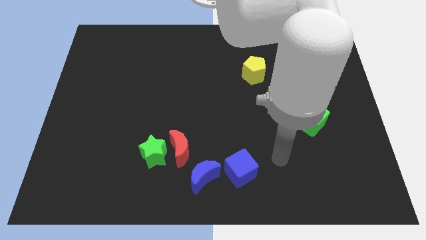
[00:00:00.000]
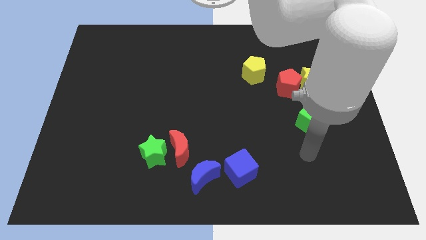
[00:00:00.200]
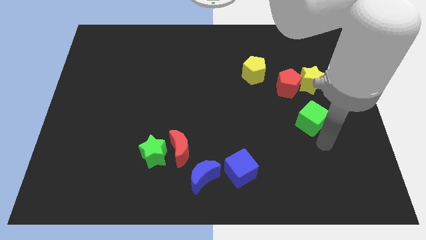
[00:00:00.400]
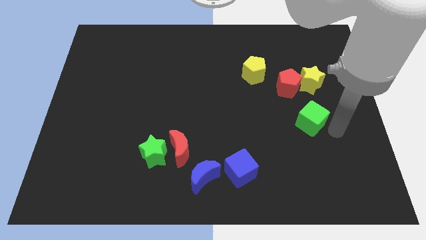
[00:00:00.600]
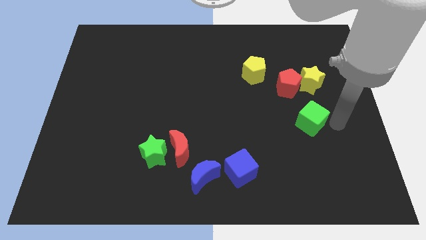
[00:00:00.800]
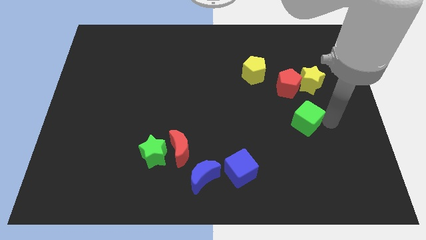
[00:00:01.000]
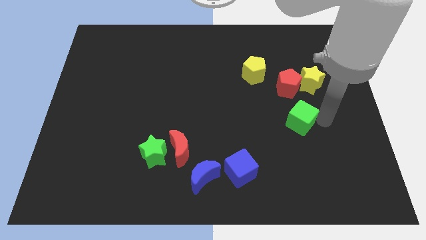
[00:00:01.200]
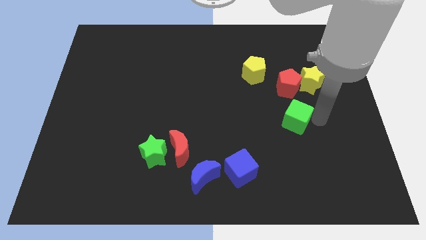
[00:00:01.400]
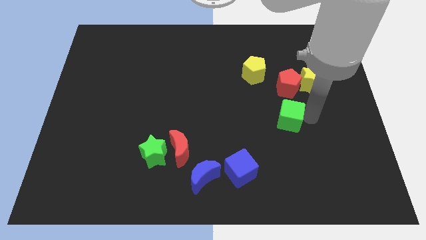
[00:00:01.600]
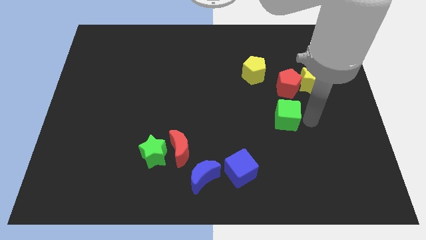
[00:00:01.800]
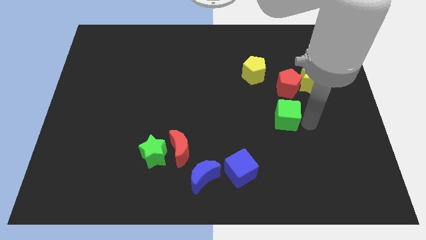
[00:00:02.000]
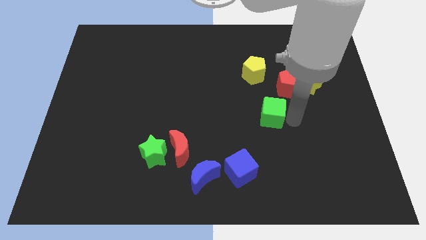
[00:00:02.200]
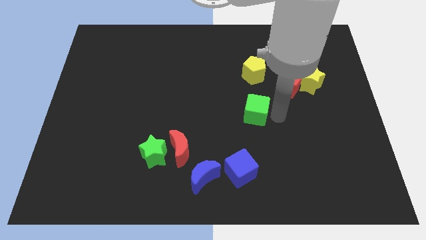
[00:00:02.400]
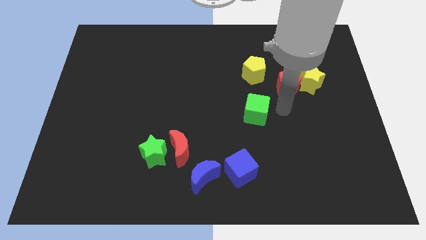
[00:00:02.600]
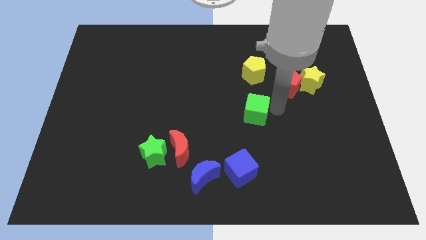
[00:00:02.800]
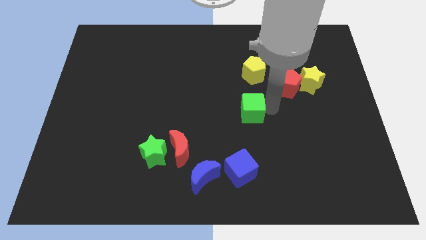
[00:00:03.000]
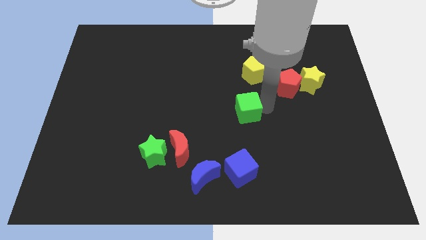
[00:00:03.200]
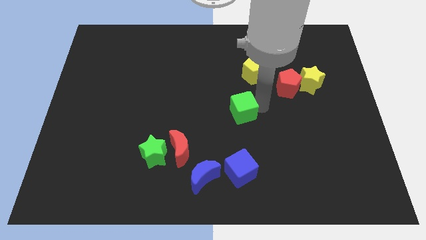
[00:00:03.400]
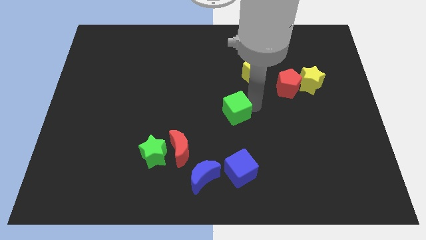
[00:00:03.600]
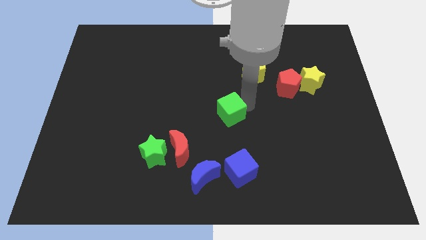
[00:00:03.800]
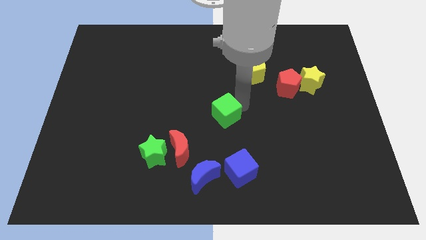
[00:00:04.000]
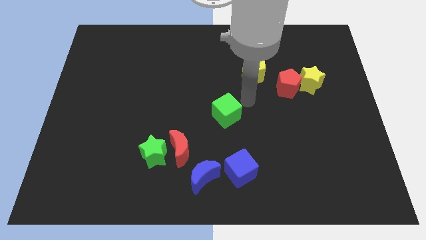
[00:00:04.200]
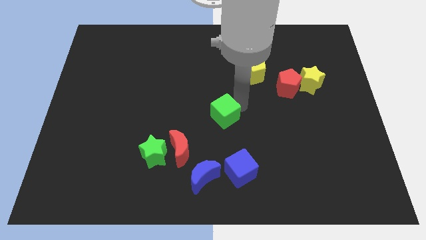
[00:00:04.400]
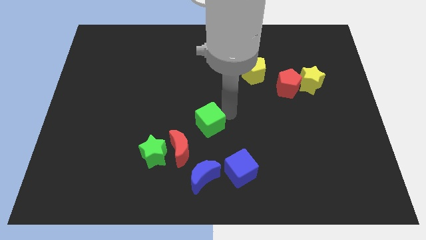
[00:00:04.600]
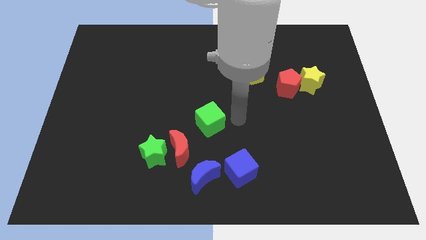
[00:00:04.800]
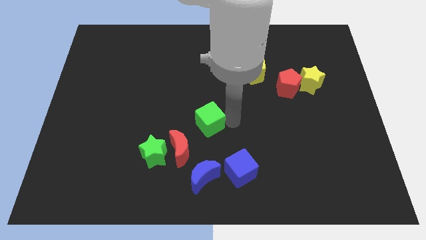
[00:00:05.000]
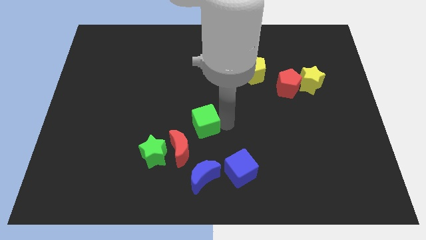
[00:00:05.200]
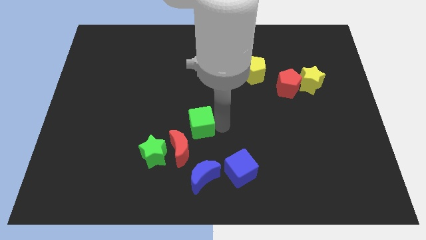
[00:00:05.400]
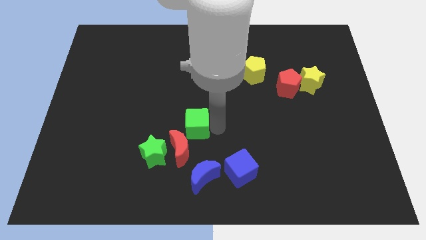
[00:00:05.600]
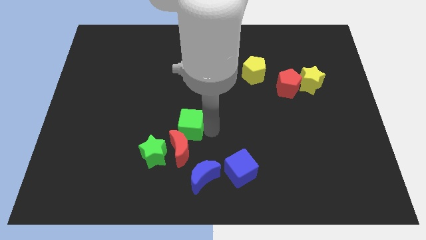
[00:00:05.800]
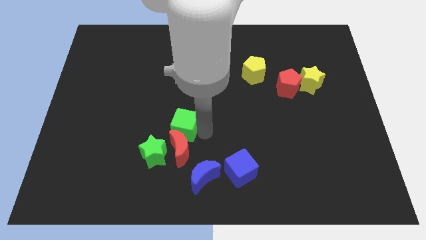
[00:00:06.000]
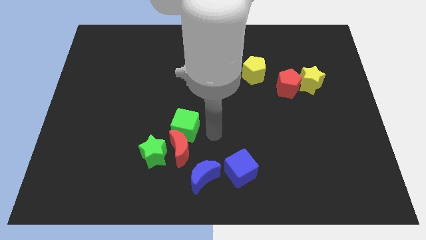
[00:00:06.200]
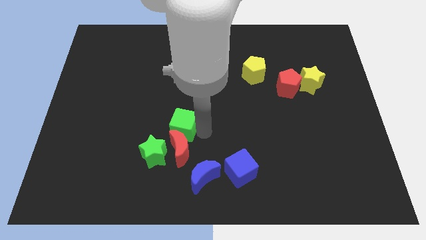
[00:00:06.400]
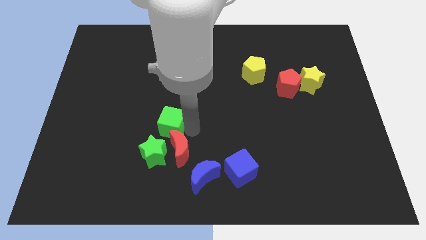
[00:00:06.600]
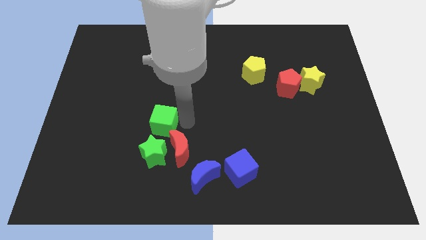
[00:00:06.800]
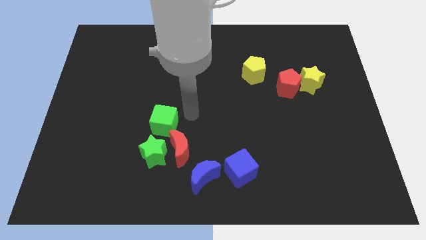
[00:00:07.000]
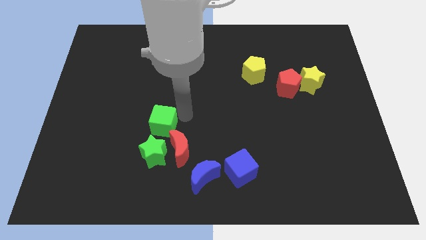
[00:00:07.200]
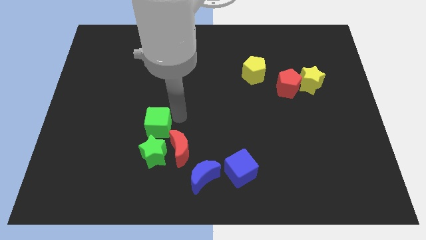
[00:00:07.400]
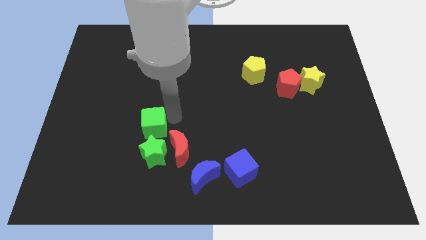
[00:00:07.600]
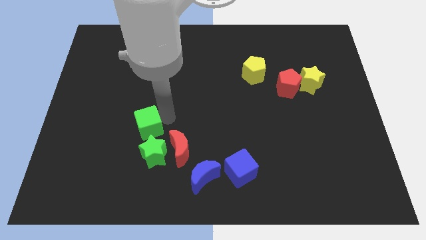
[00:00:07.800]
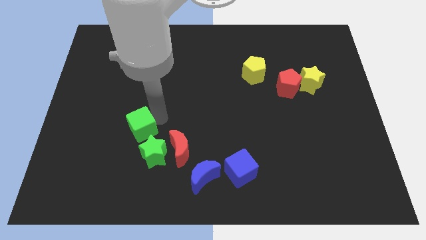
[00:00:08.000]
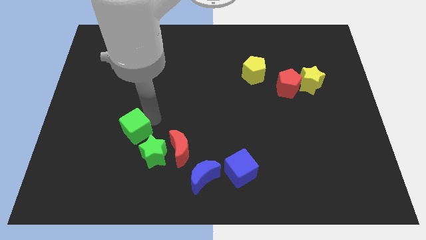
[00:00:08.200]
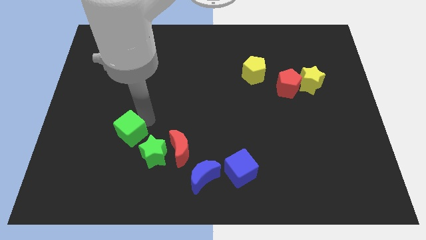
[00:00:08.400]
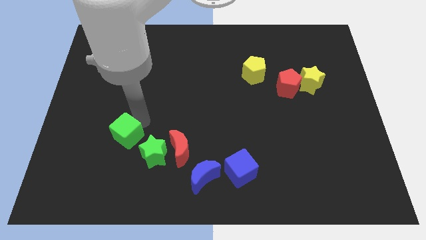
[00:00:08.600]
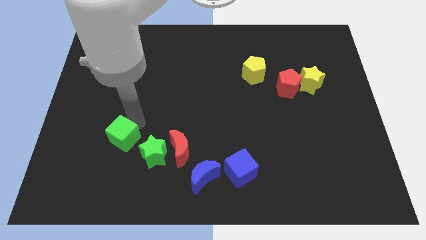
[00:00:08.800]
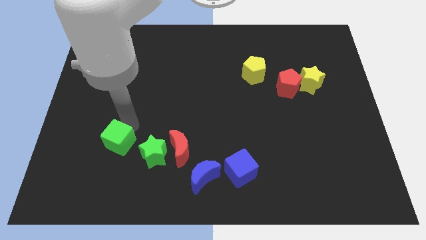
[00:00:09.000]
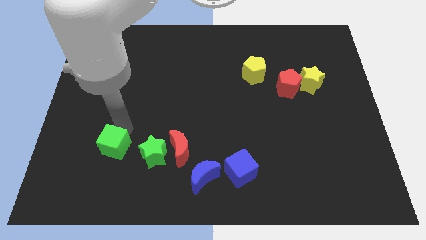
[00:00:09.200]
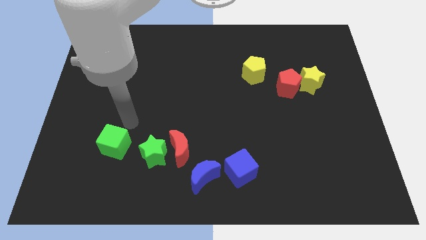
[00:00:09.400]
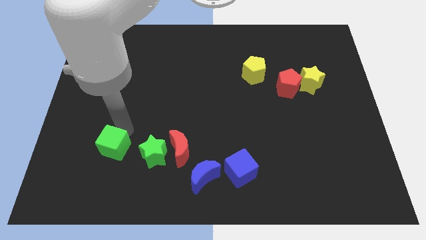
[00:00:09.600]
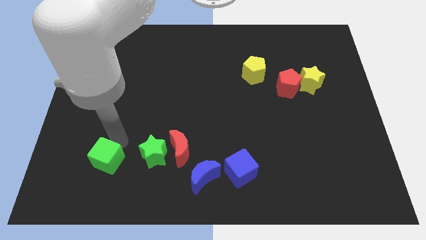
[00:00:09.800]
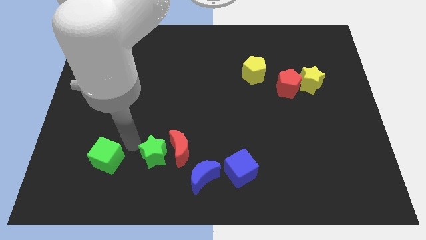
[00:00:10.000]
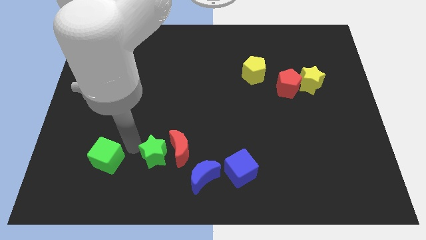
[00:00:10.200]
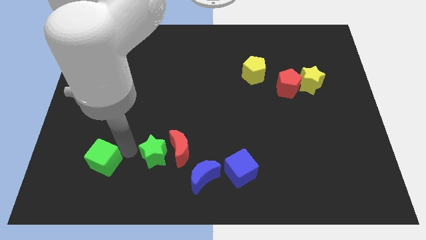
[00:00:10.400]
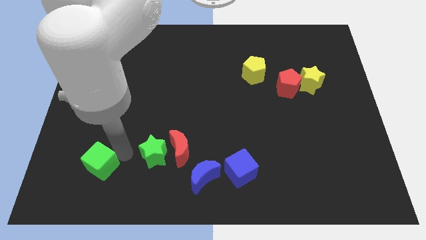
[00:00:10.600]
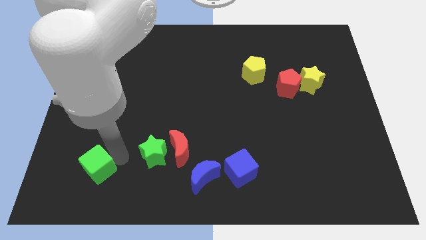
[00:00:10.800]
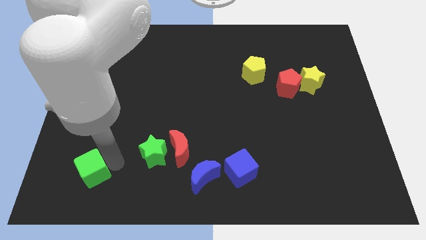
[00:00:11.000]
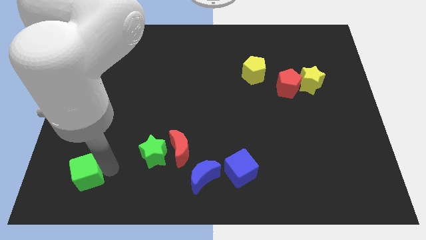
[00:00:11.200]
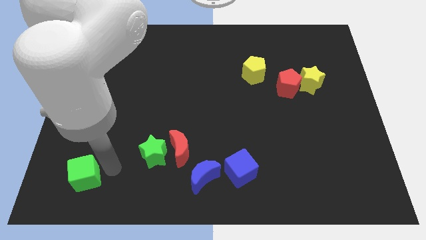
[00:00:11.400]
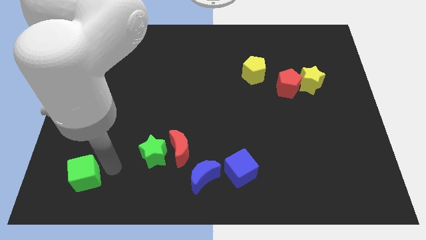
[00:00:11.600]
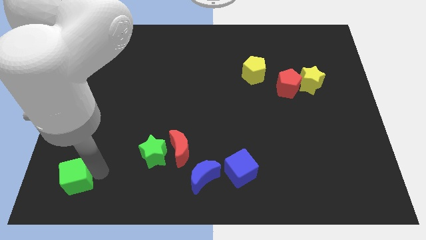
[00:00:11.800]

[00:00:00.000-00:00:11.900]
put the green cube to the bottom left
